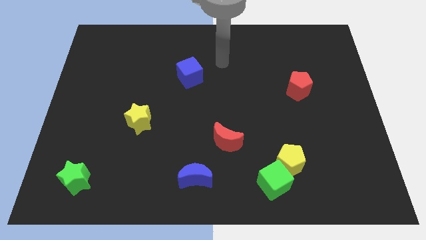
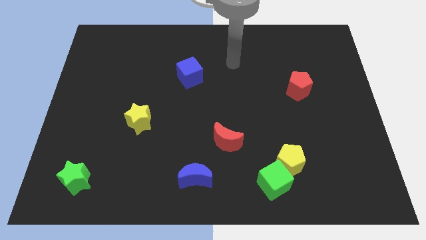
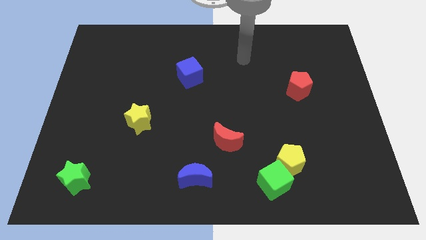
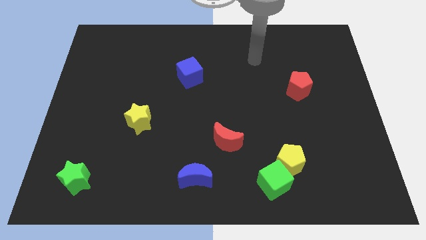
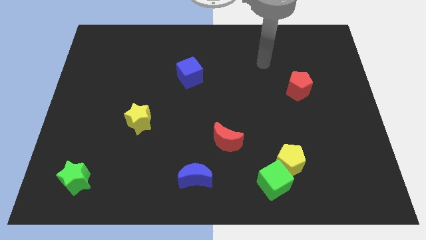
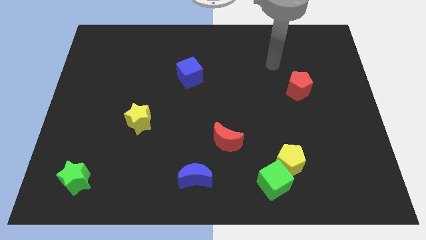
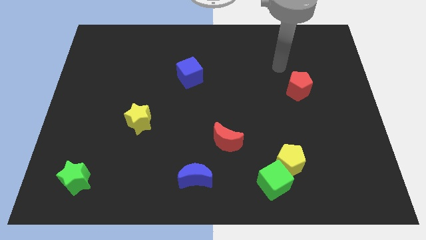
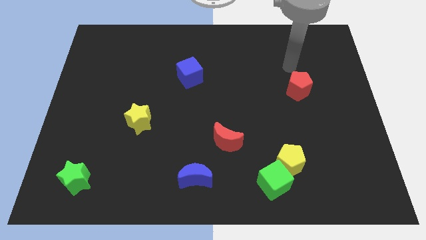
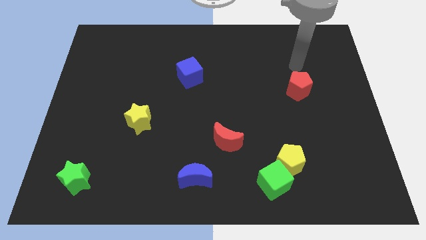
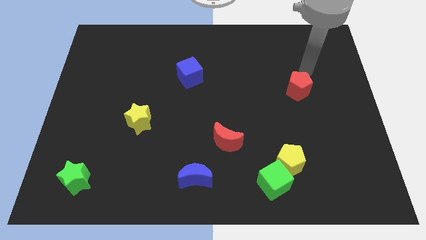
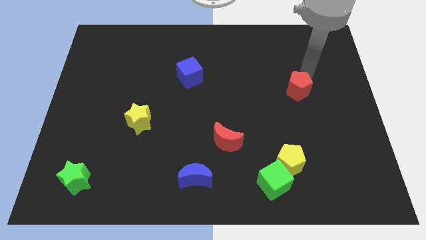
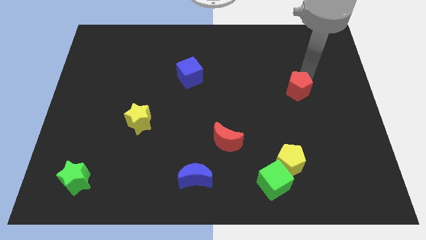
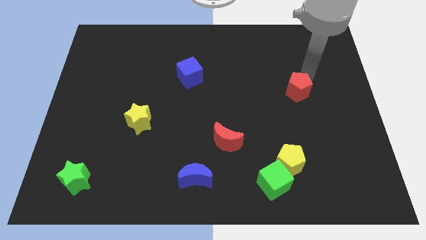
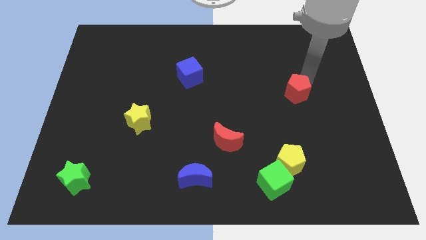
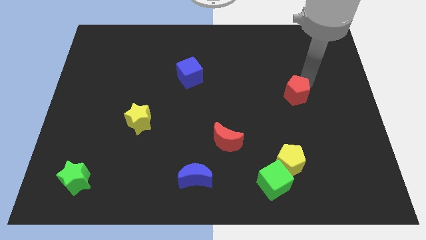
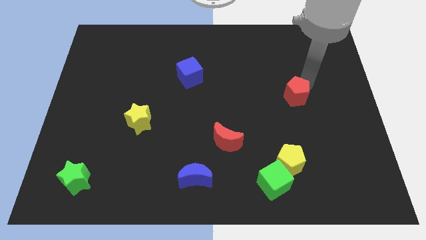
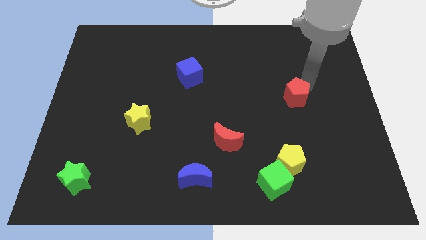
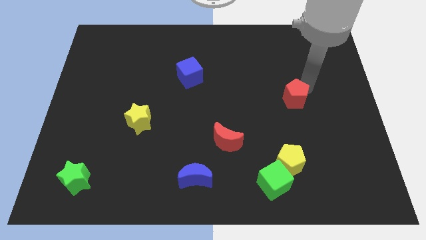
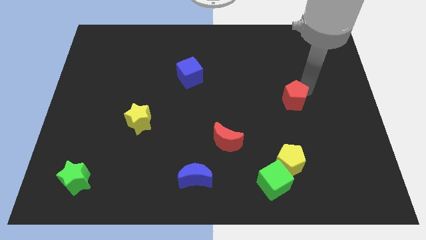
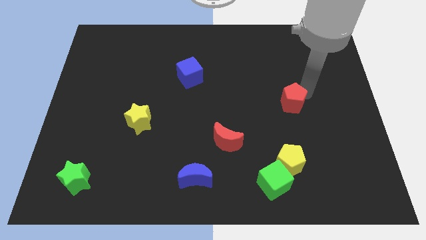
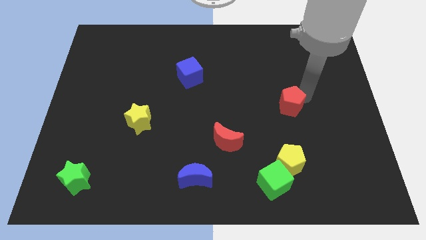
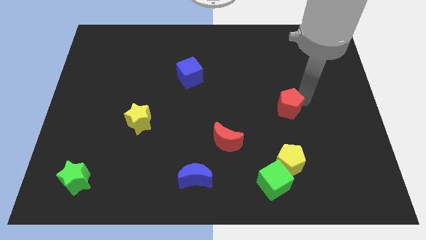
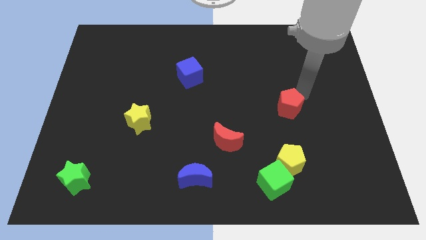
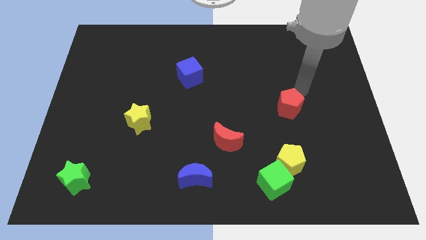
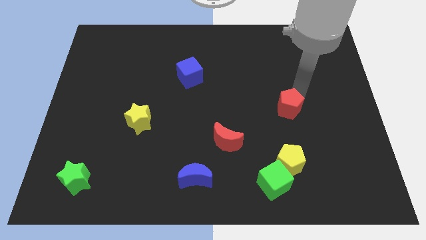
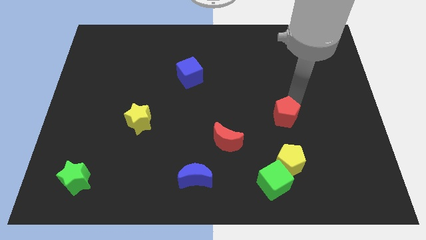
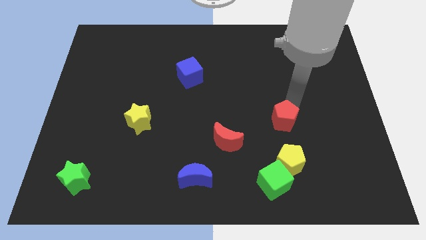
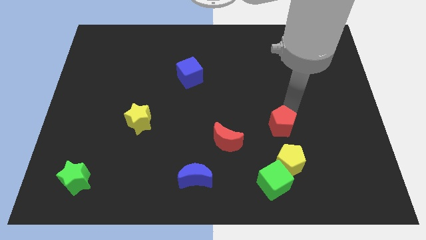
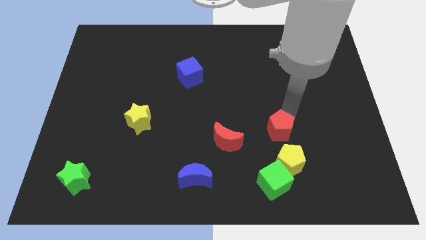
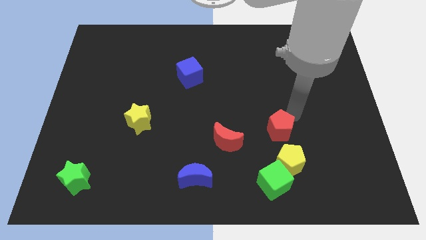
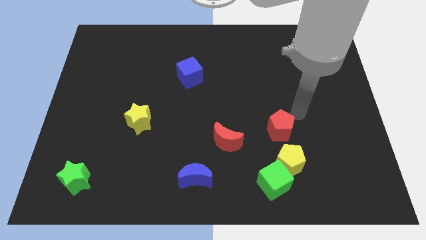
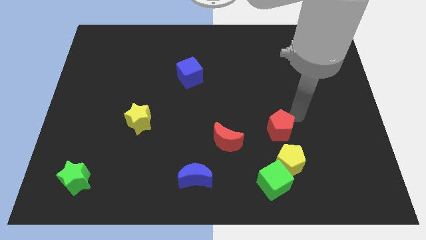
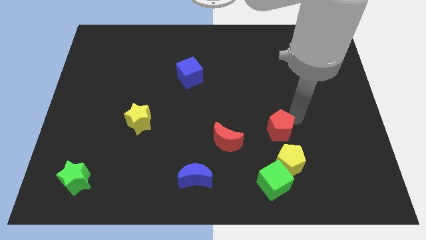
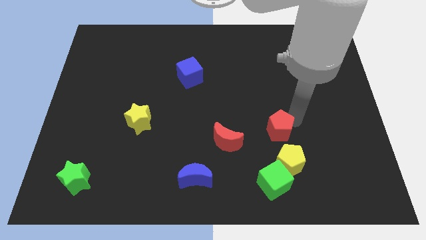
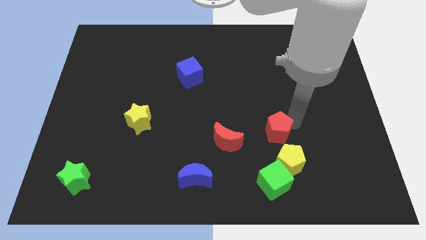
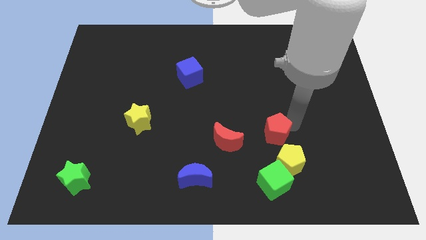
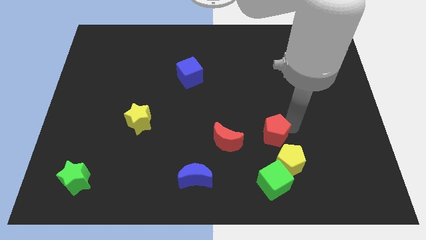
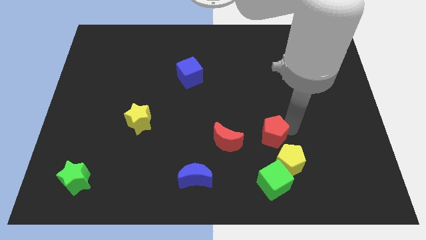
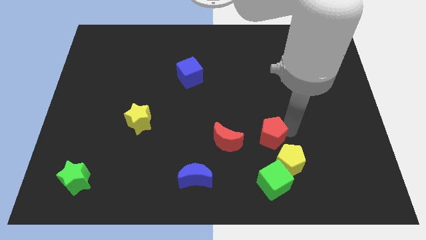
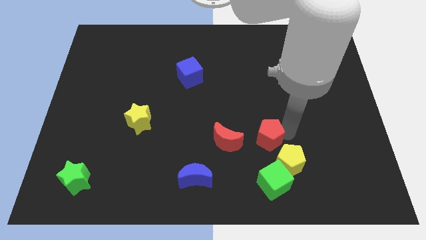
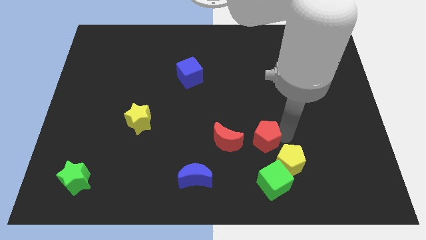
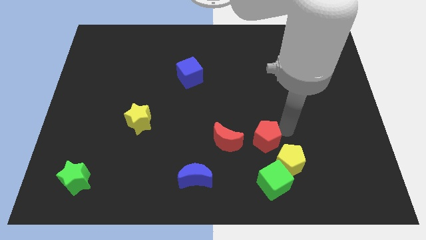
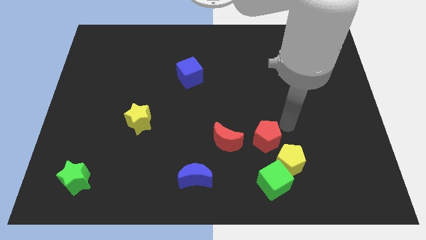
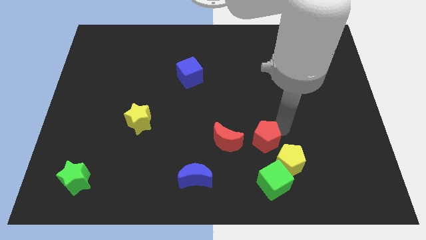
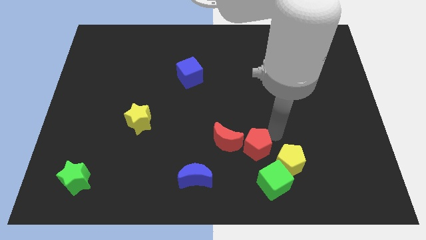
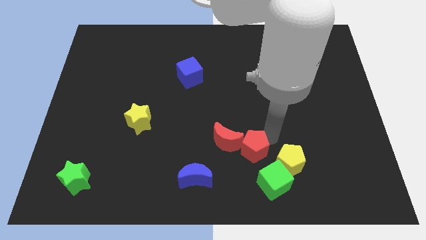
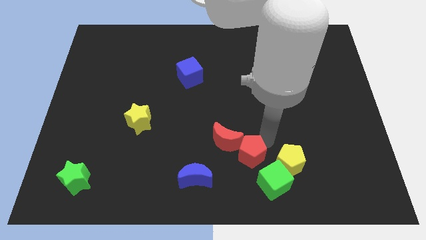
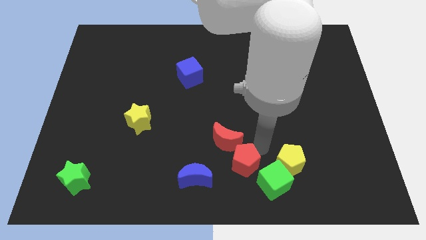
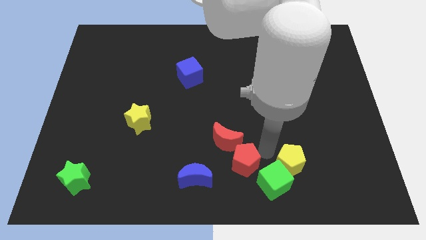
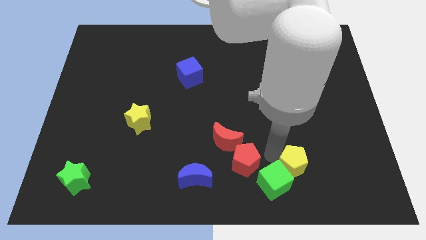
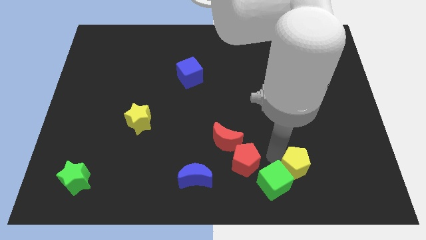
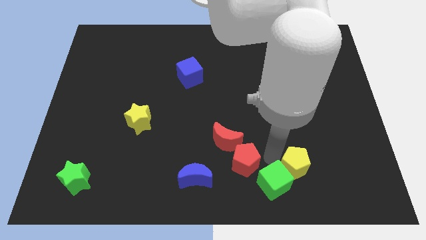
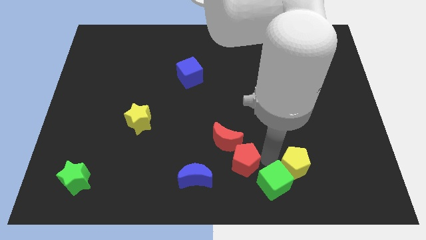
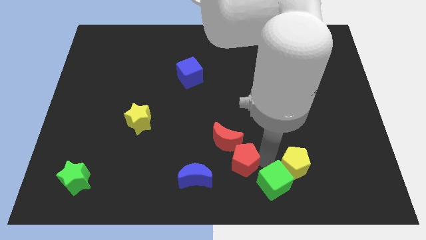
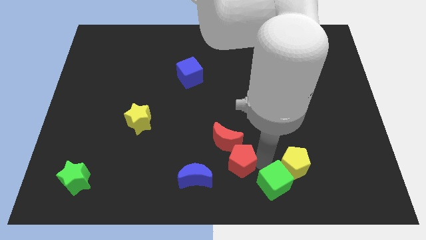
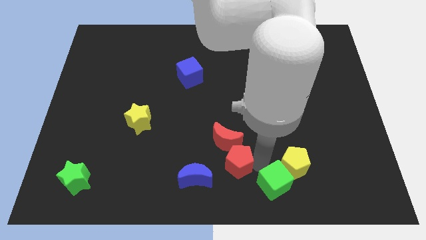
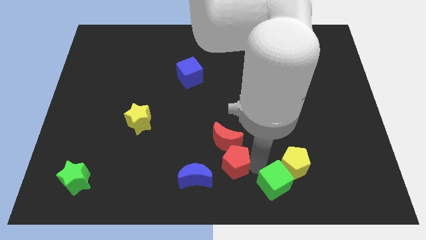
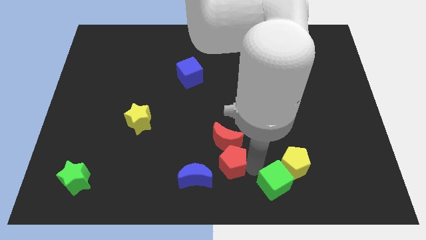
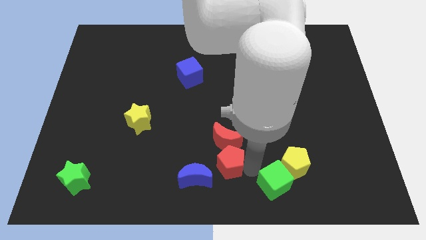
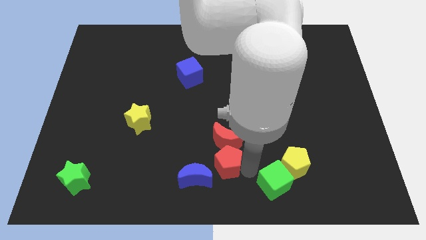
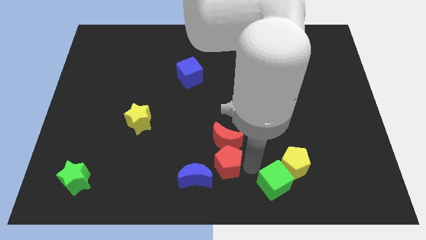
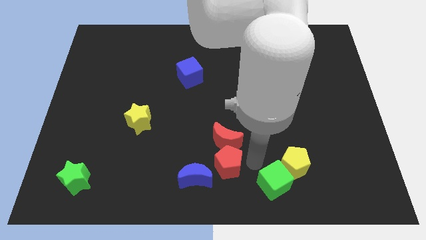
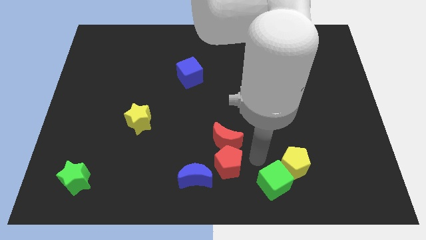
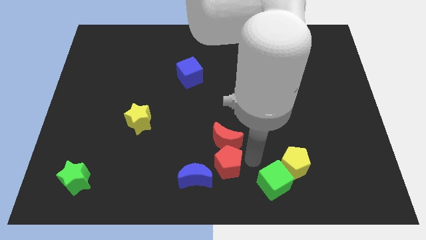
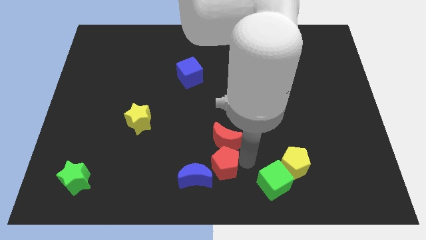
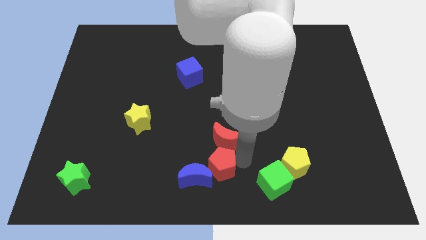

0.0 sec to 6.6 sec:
push the red pentagon to the blue moon
